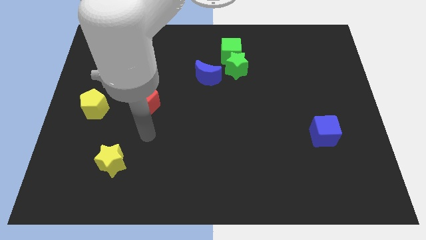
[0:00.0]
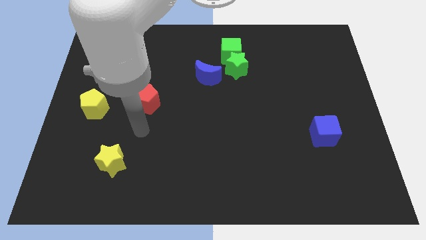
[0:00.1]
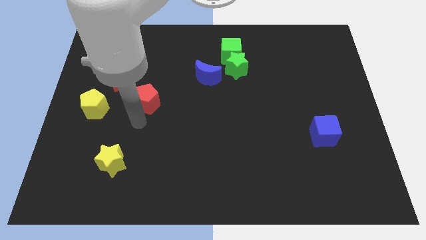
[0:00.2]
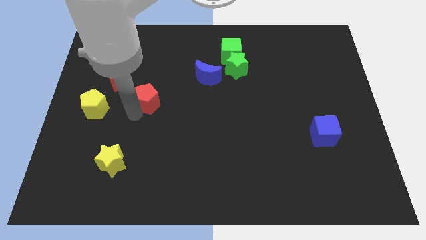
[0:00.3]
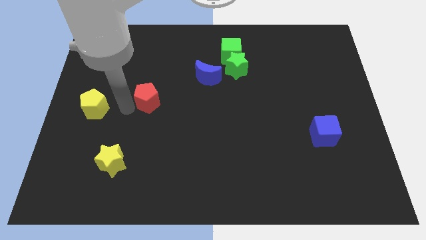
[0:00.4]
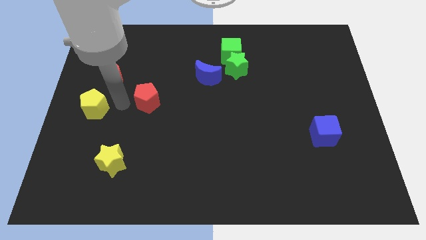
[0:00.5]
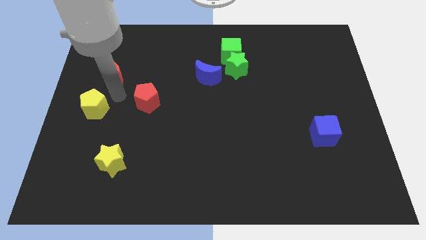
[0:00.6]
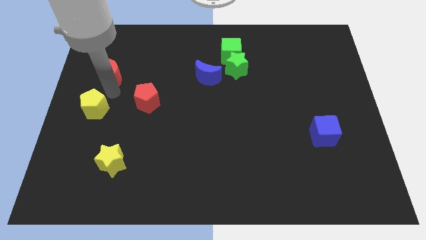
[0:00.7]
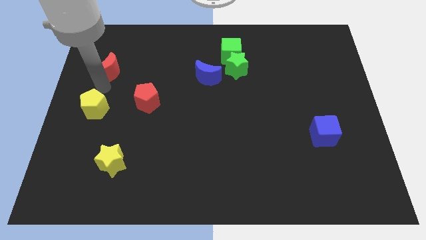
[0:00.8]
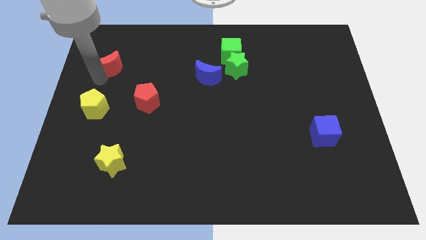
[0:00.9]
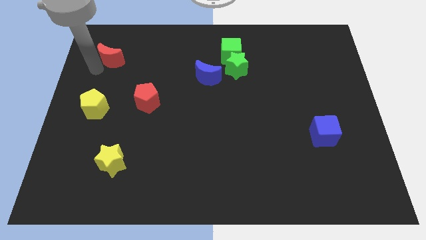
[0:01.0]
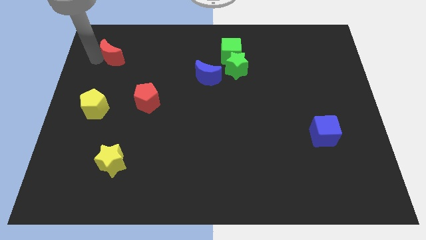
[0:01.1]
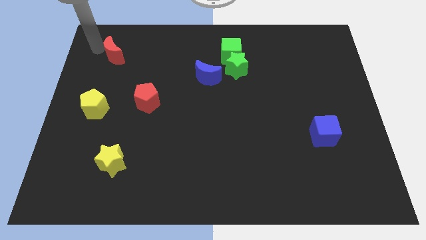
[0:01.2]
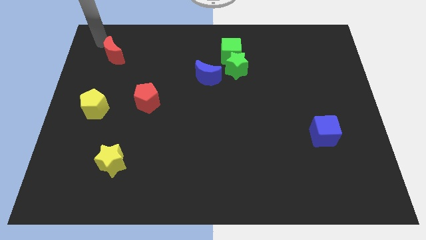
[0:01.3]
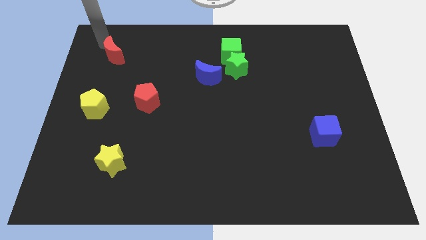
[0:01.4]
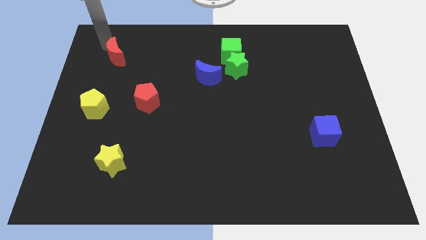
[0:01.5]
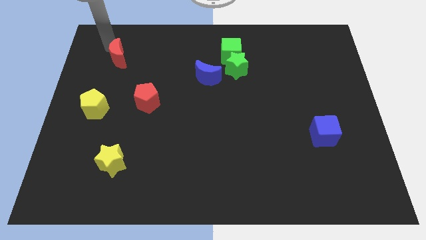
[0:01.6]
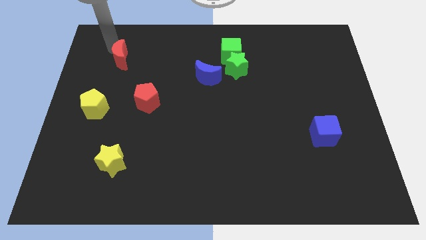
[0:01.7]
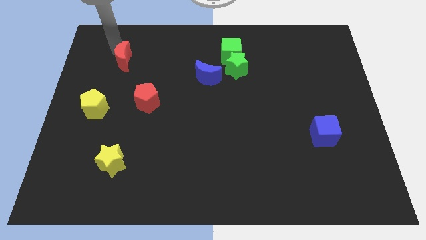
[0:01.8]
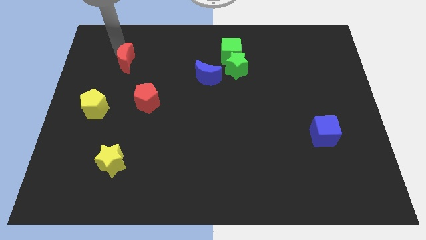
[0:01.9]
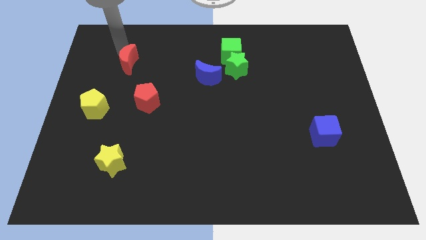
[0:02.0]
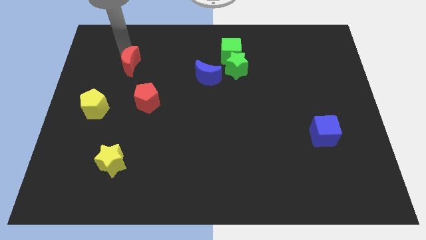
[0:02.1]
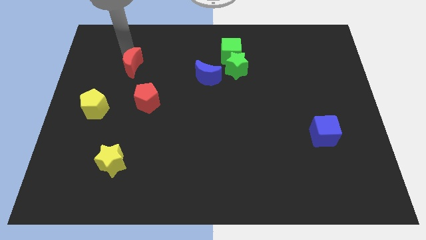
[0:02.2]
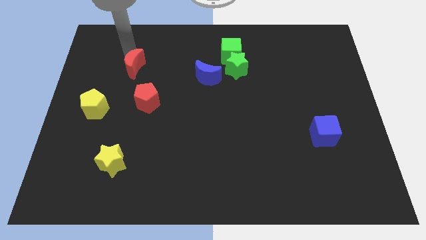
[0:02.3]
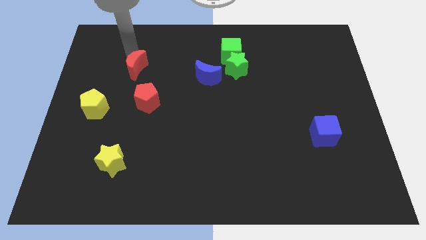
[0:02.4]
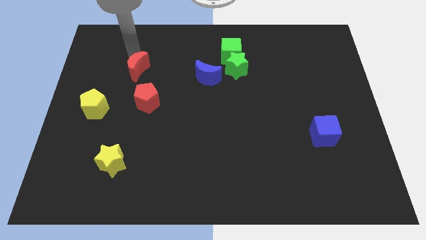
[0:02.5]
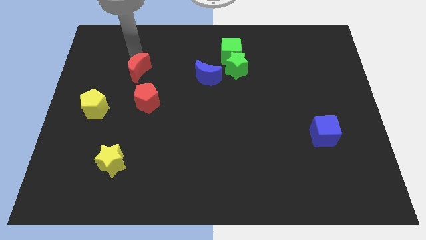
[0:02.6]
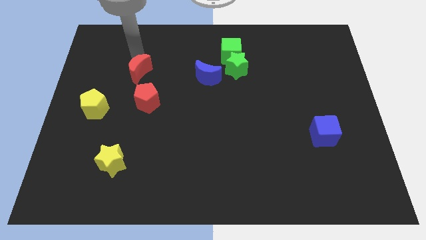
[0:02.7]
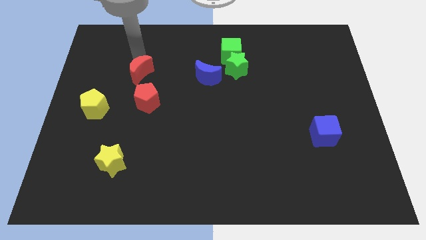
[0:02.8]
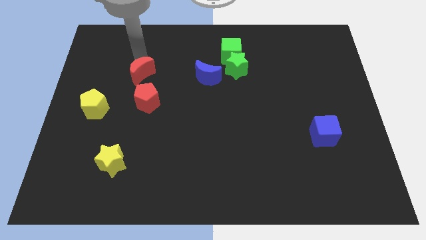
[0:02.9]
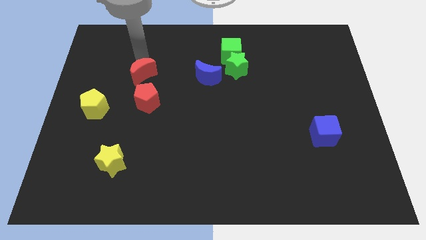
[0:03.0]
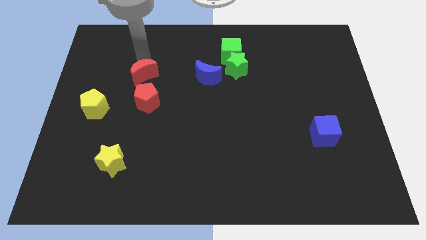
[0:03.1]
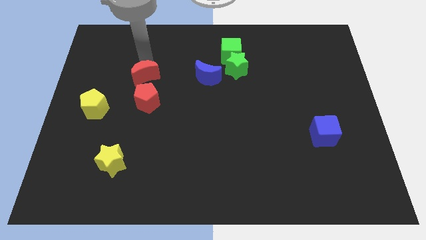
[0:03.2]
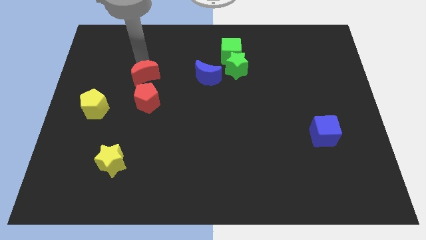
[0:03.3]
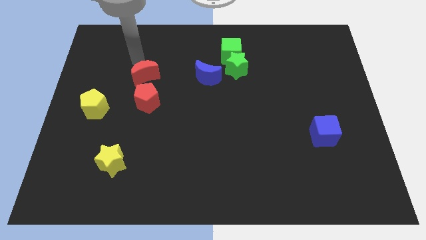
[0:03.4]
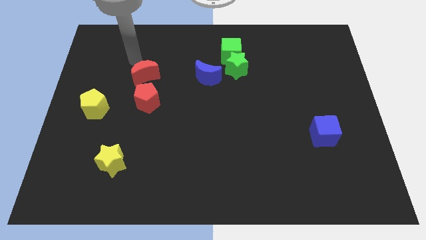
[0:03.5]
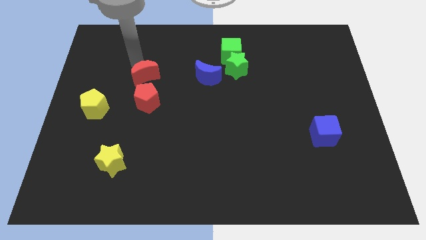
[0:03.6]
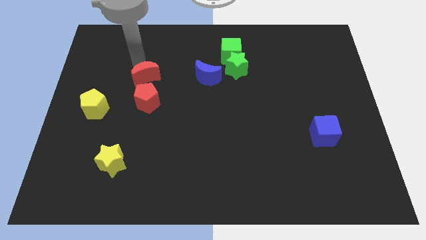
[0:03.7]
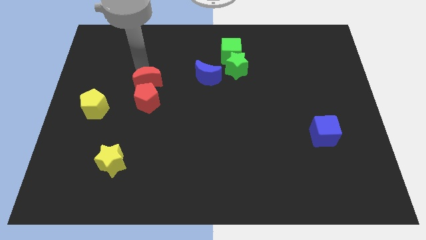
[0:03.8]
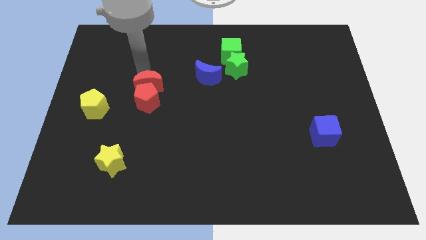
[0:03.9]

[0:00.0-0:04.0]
slightly slide the red moon downwards and to the right

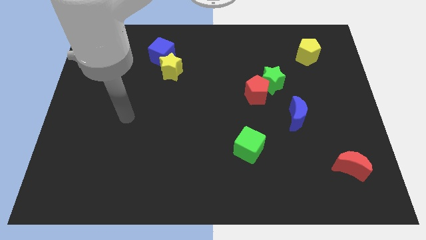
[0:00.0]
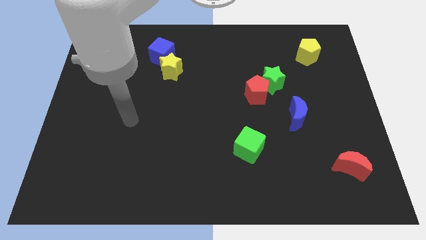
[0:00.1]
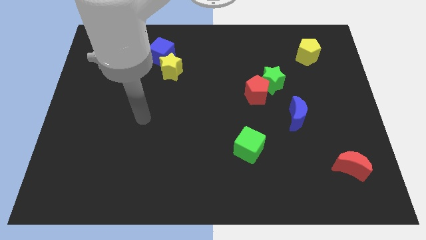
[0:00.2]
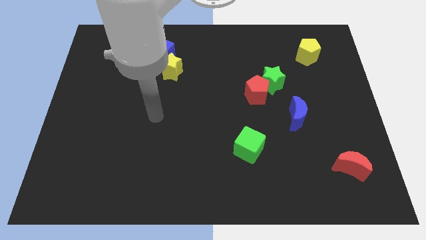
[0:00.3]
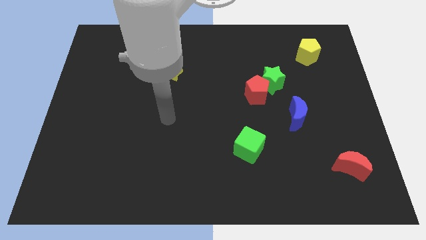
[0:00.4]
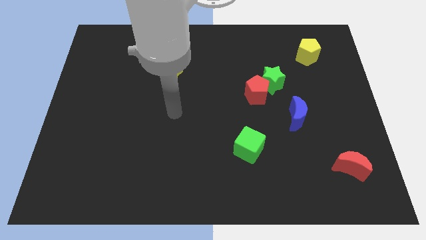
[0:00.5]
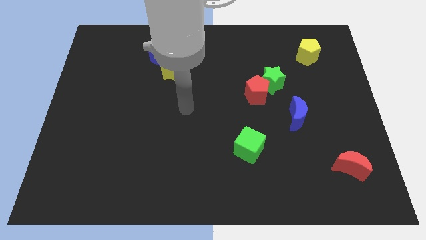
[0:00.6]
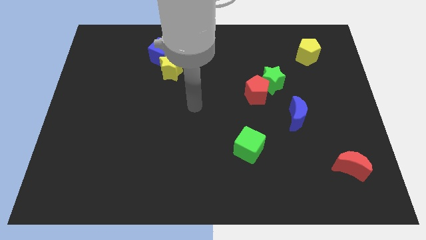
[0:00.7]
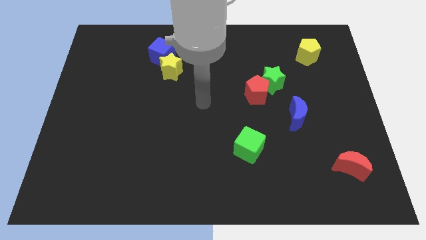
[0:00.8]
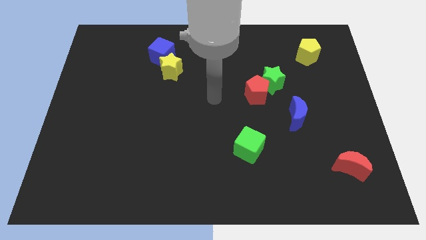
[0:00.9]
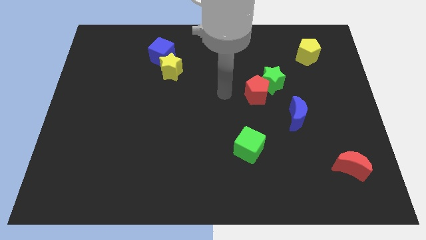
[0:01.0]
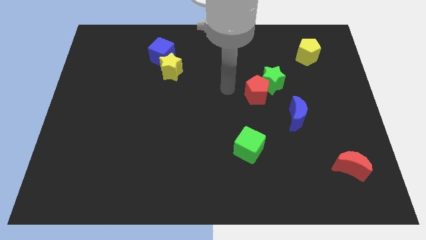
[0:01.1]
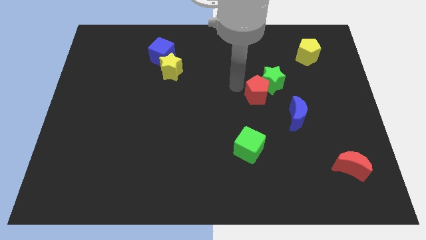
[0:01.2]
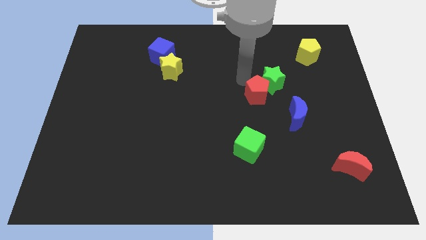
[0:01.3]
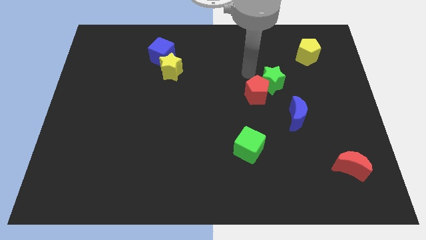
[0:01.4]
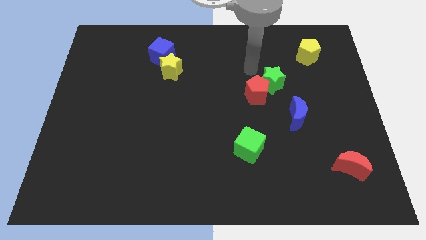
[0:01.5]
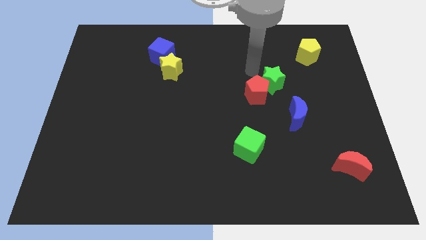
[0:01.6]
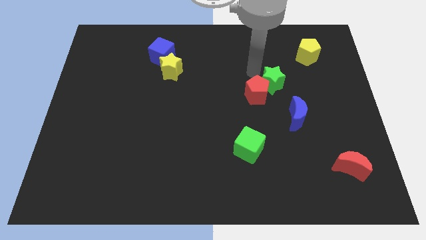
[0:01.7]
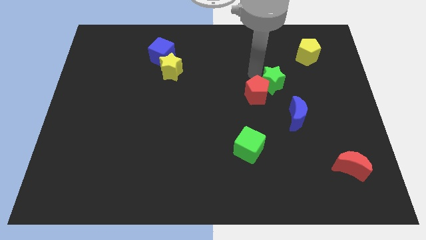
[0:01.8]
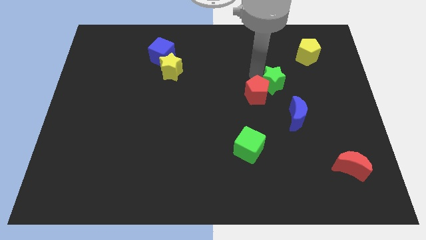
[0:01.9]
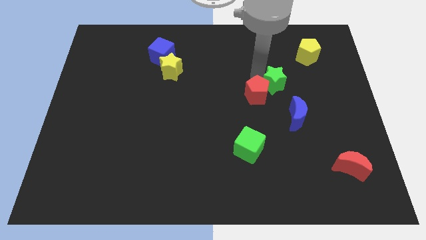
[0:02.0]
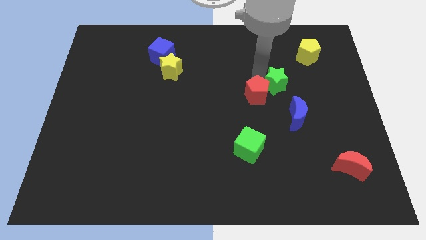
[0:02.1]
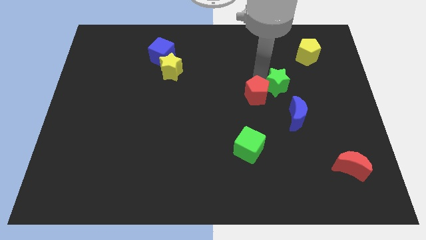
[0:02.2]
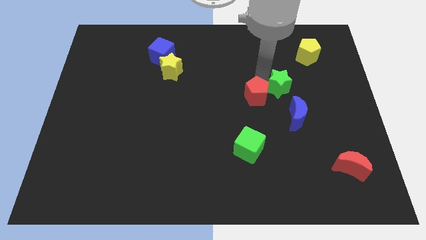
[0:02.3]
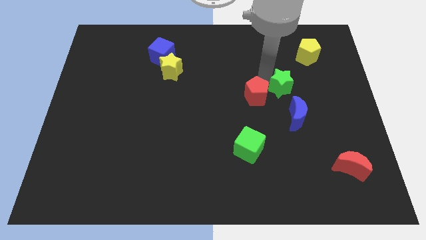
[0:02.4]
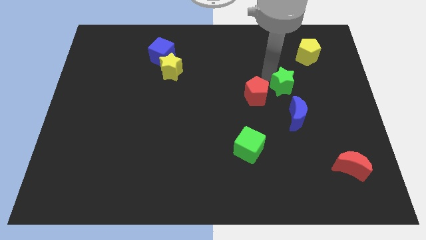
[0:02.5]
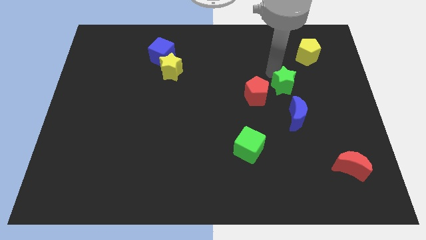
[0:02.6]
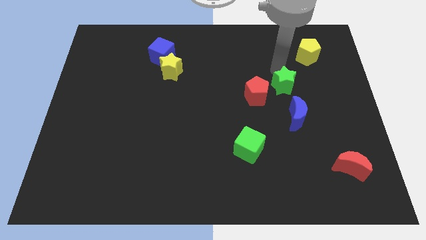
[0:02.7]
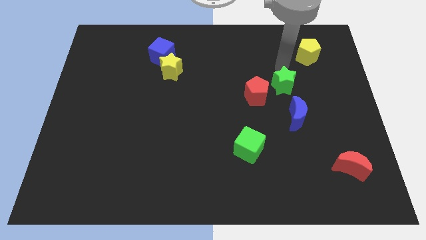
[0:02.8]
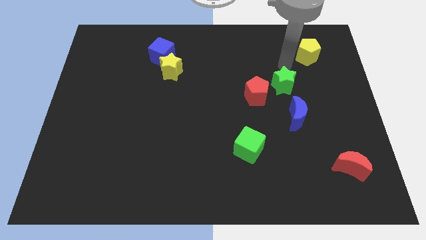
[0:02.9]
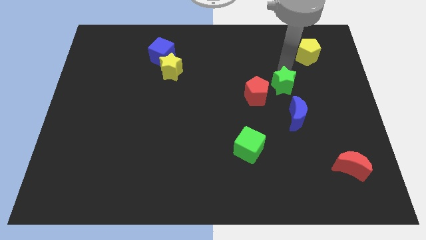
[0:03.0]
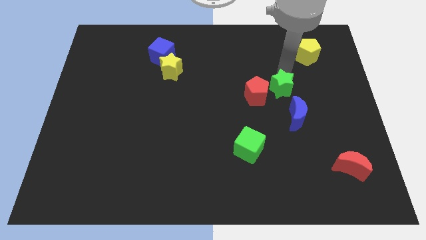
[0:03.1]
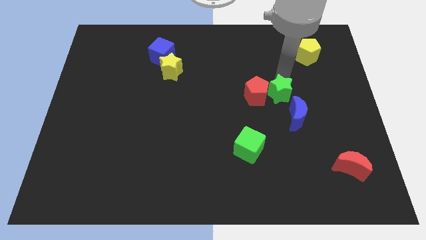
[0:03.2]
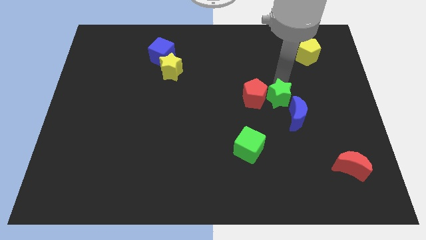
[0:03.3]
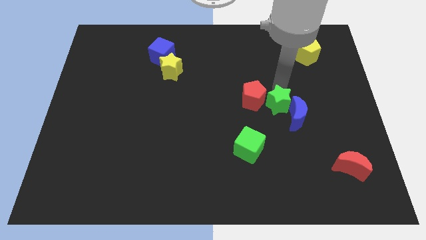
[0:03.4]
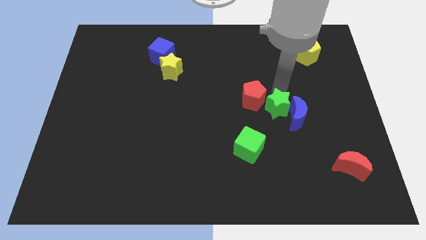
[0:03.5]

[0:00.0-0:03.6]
slightly push the green star down

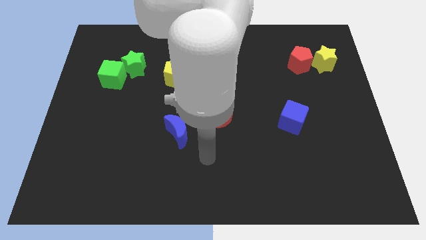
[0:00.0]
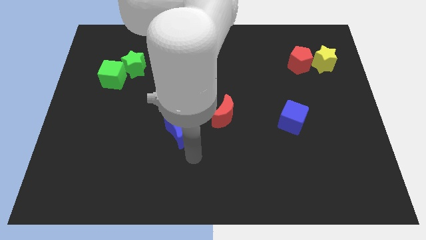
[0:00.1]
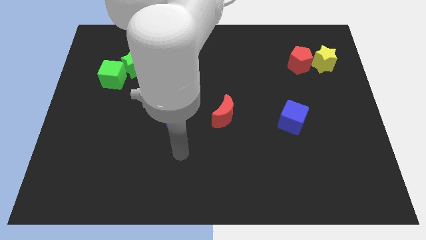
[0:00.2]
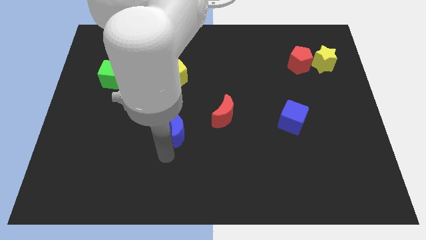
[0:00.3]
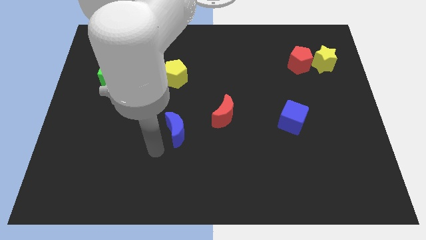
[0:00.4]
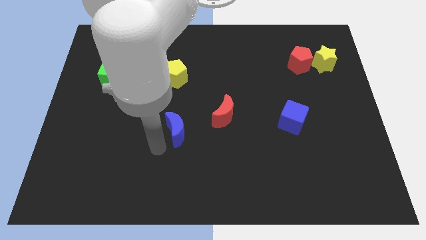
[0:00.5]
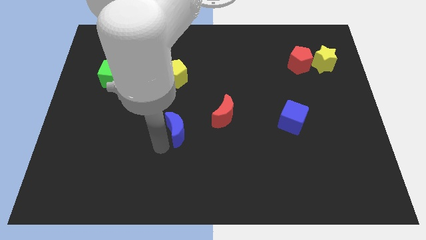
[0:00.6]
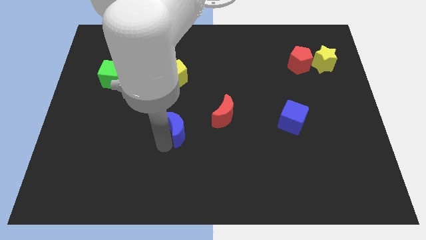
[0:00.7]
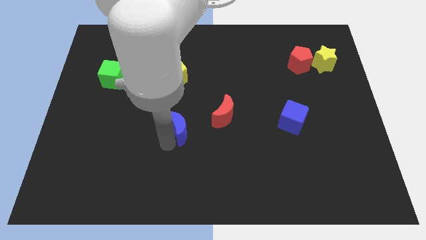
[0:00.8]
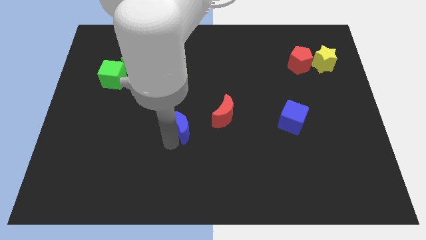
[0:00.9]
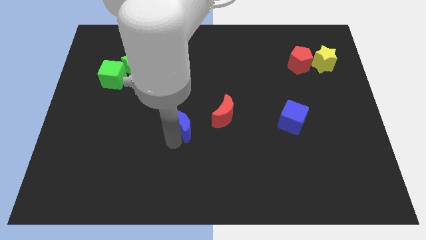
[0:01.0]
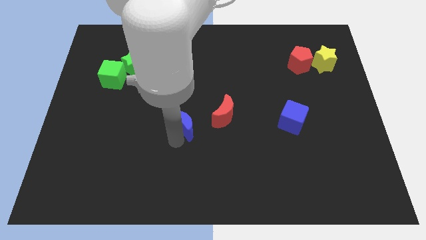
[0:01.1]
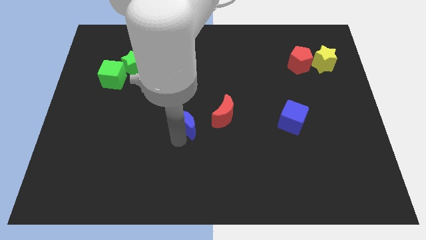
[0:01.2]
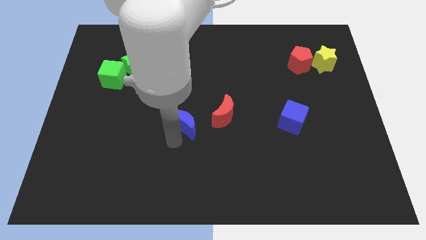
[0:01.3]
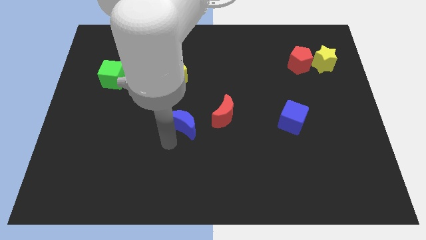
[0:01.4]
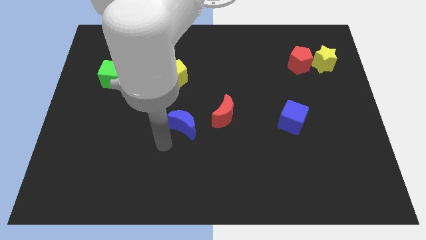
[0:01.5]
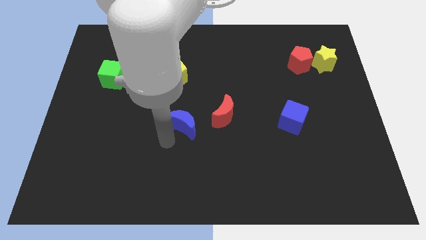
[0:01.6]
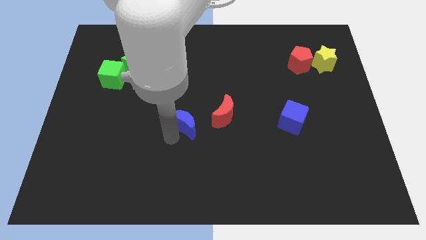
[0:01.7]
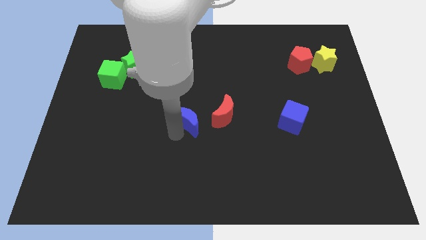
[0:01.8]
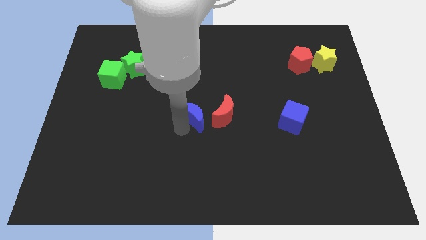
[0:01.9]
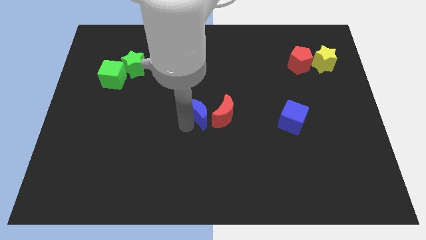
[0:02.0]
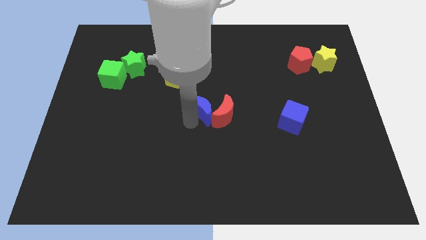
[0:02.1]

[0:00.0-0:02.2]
slide the blue moon up and then right a little
